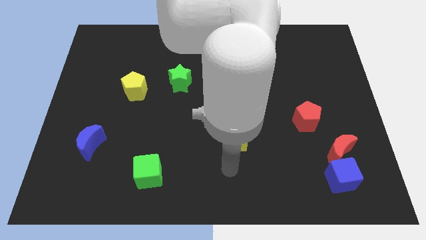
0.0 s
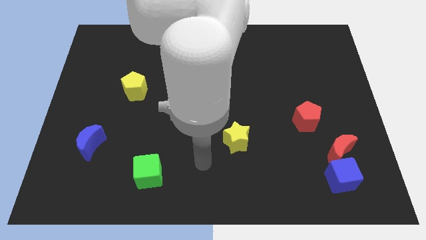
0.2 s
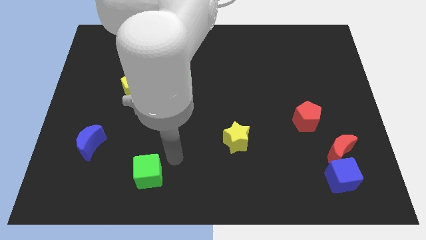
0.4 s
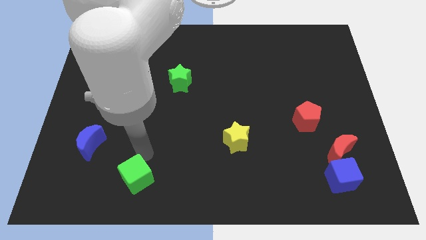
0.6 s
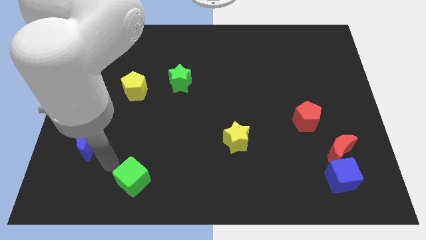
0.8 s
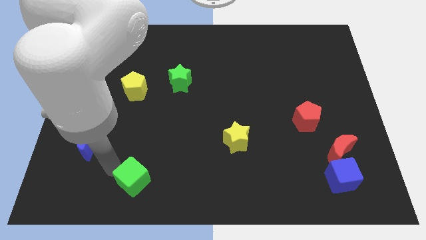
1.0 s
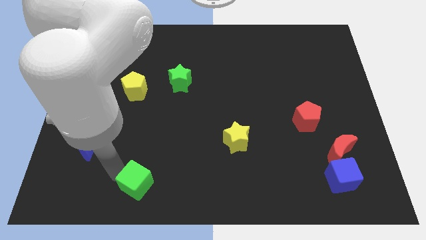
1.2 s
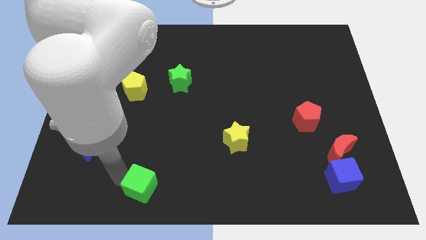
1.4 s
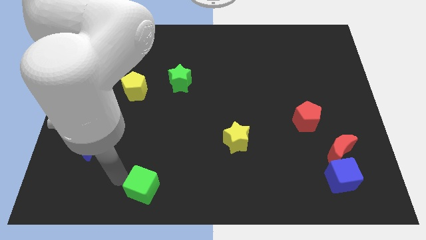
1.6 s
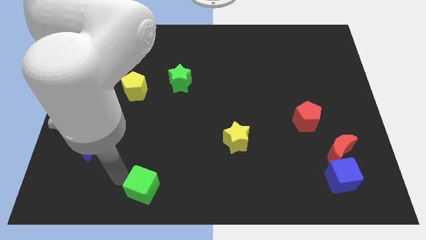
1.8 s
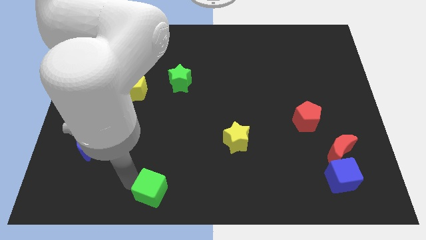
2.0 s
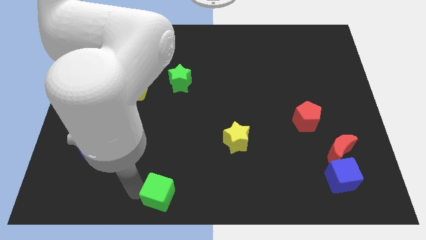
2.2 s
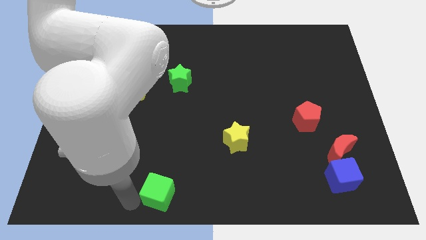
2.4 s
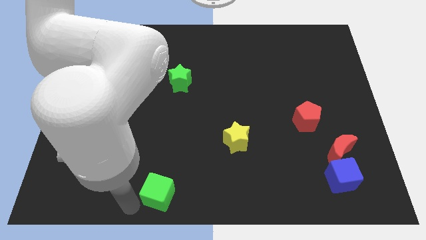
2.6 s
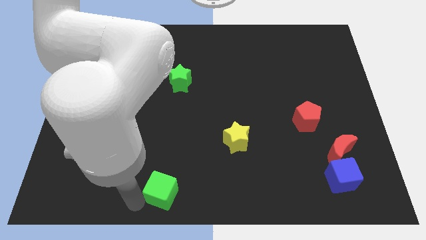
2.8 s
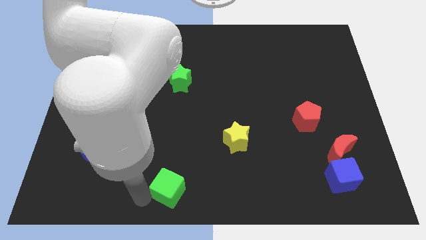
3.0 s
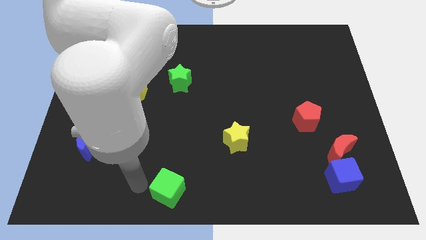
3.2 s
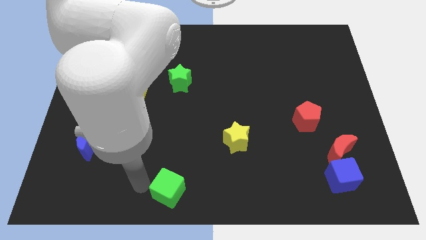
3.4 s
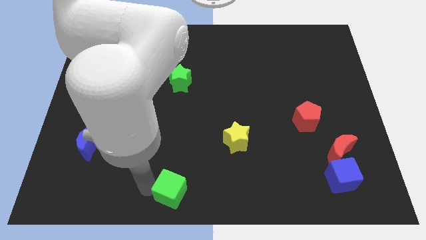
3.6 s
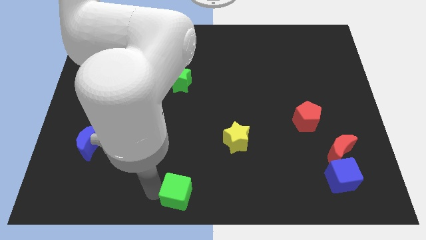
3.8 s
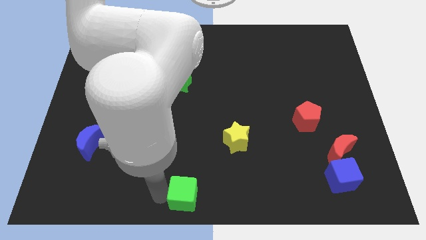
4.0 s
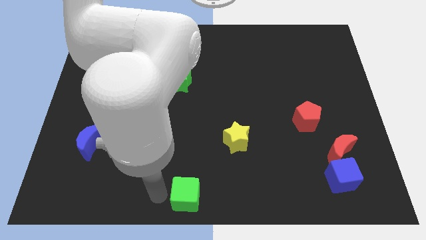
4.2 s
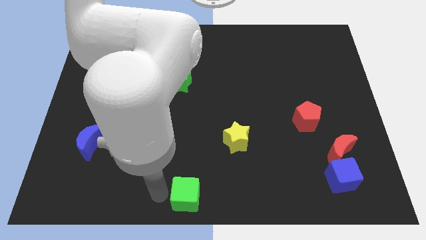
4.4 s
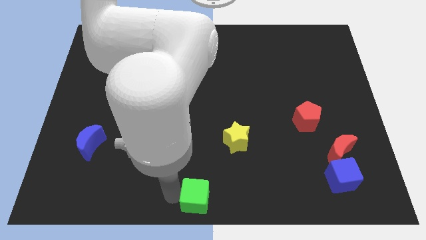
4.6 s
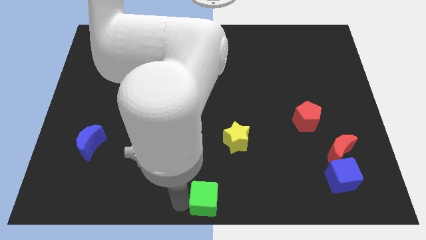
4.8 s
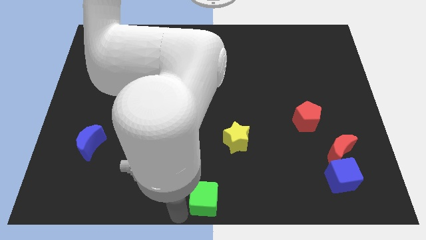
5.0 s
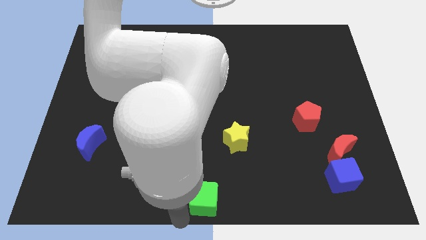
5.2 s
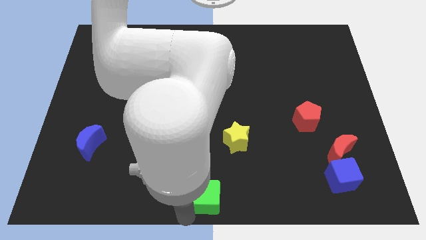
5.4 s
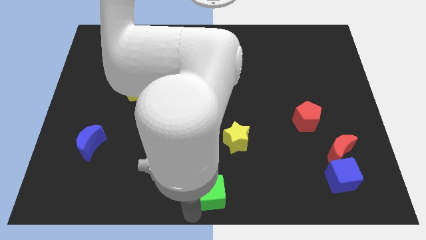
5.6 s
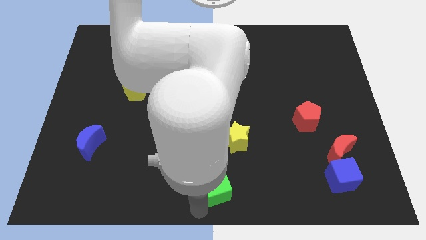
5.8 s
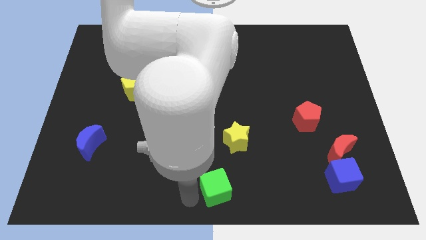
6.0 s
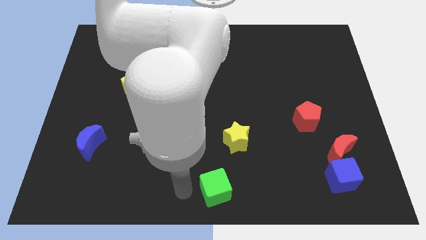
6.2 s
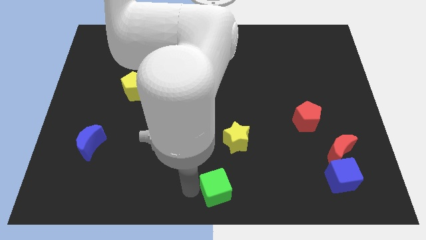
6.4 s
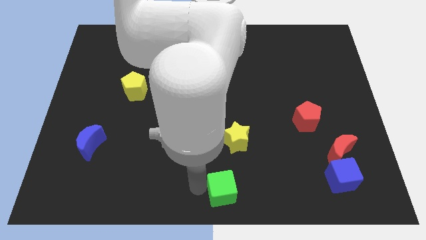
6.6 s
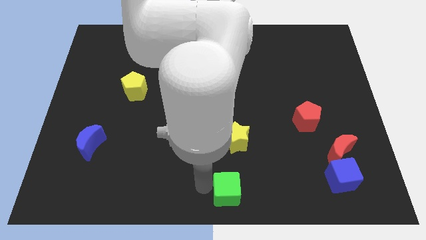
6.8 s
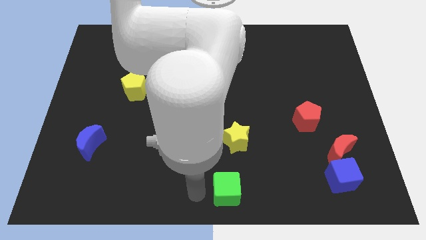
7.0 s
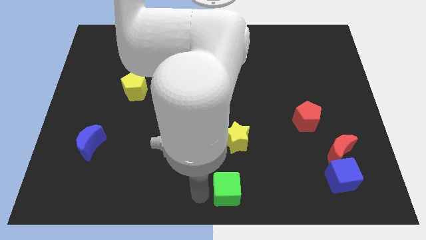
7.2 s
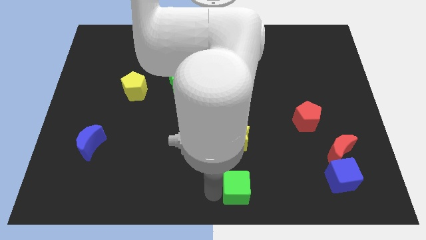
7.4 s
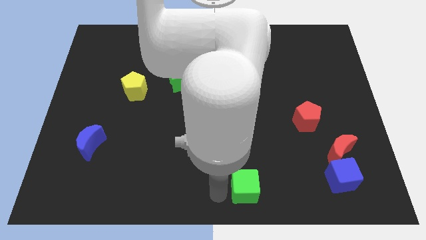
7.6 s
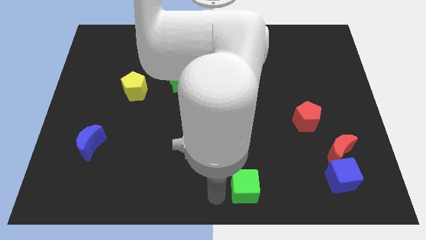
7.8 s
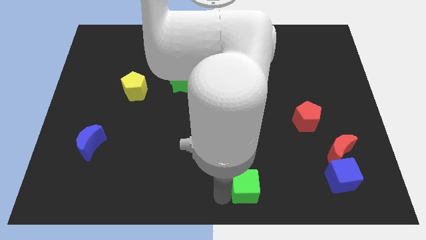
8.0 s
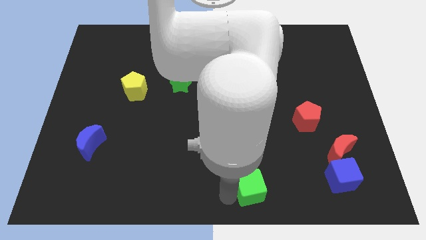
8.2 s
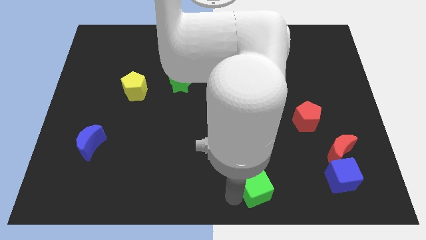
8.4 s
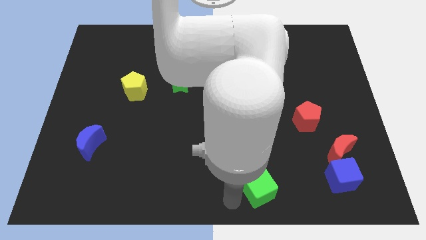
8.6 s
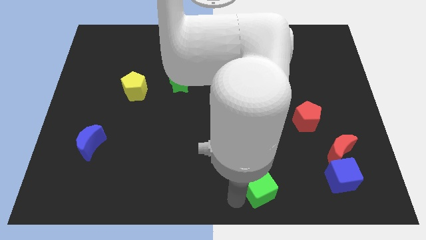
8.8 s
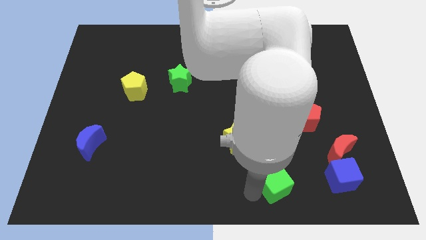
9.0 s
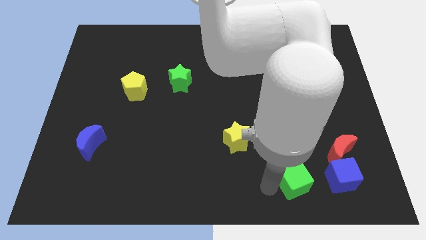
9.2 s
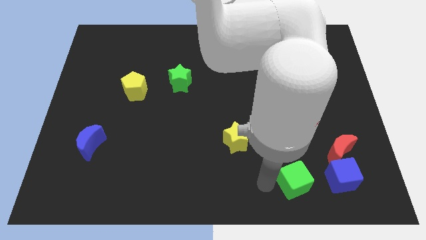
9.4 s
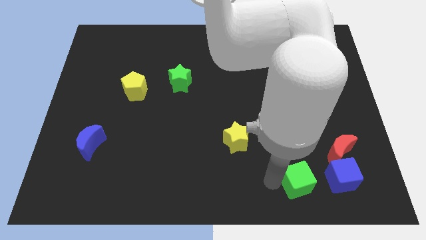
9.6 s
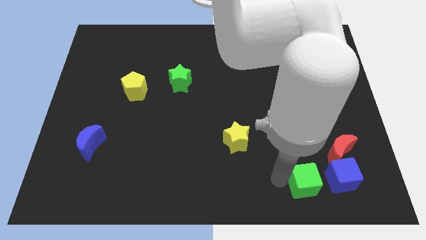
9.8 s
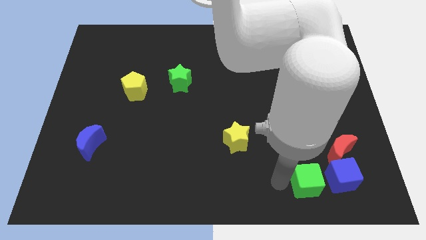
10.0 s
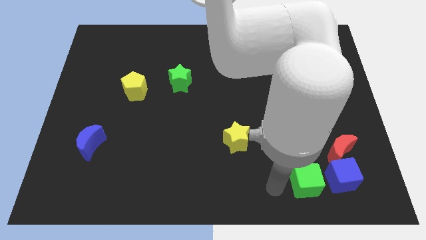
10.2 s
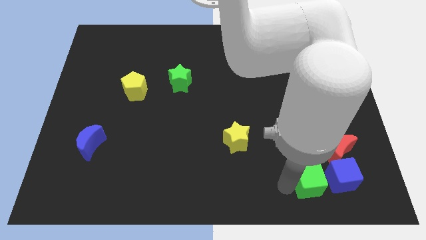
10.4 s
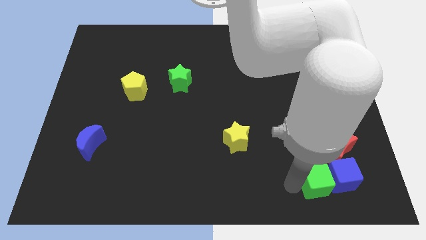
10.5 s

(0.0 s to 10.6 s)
move the green cube towards the blue cube

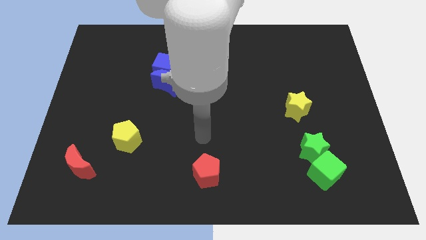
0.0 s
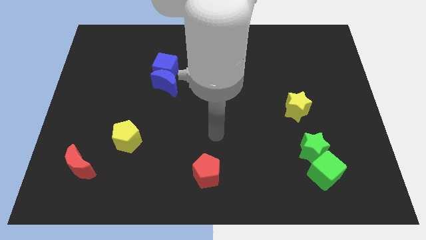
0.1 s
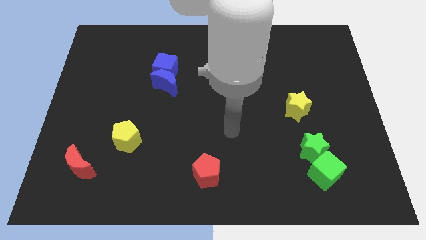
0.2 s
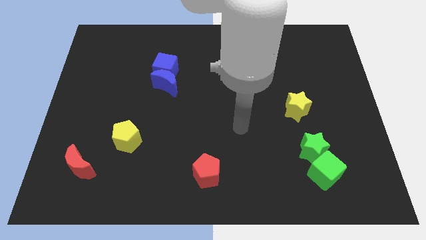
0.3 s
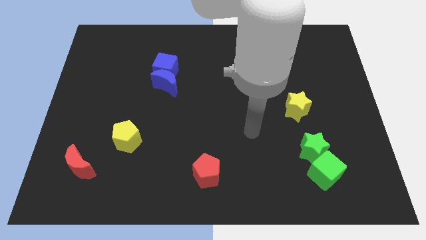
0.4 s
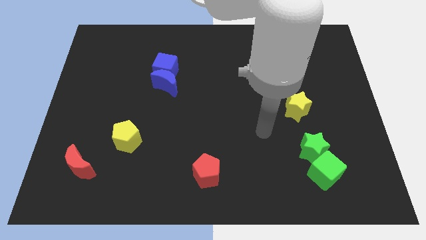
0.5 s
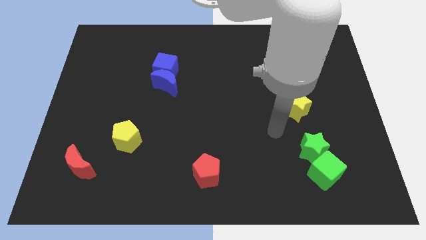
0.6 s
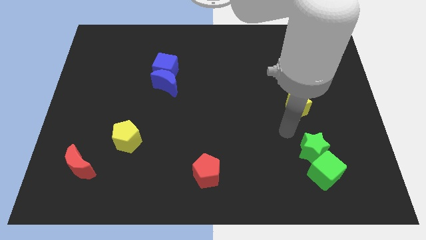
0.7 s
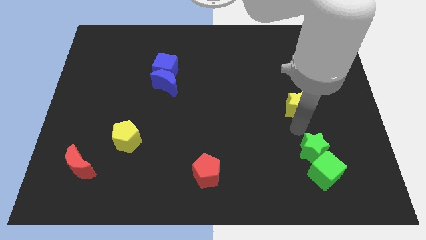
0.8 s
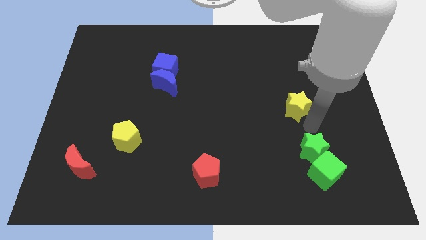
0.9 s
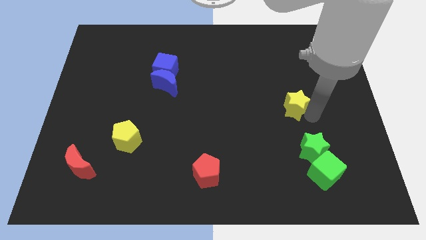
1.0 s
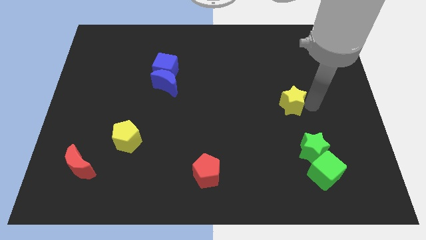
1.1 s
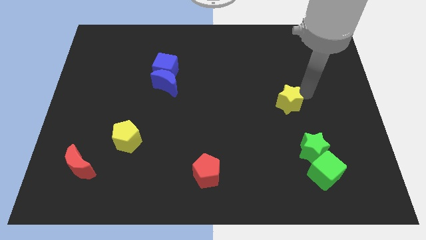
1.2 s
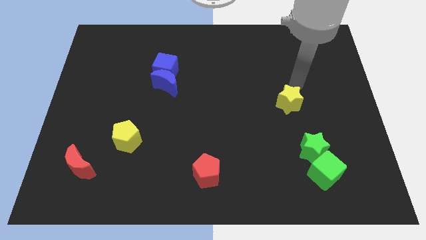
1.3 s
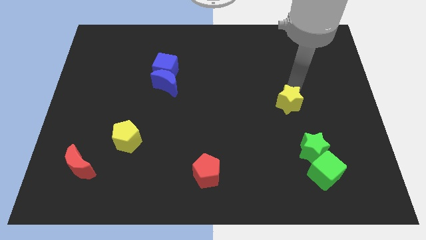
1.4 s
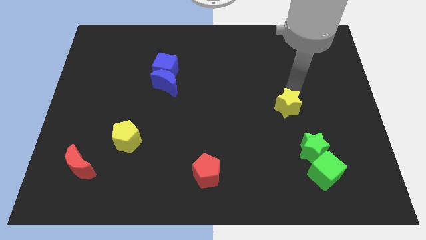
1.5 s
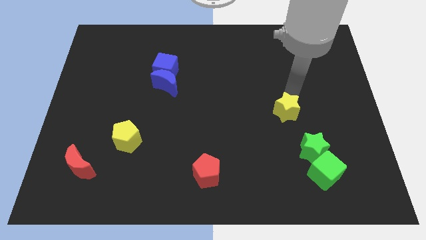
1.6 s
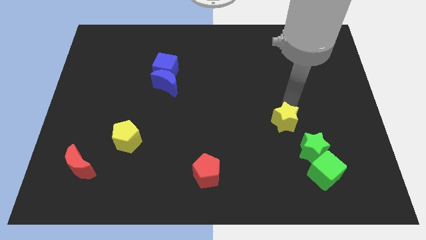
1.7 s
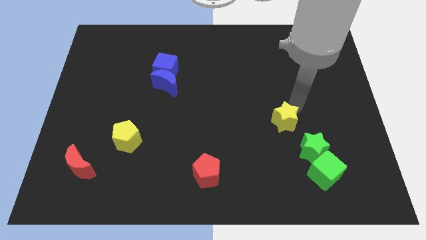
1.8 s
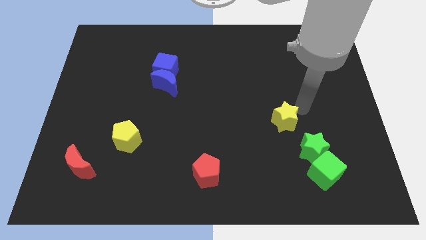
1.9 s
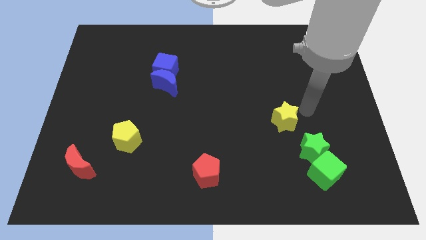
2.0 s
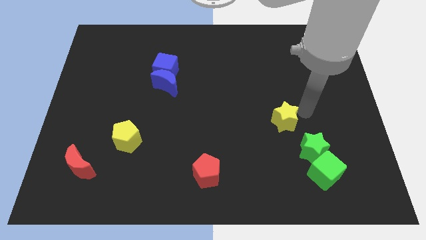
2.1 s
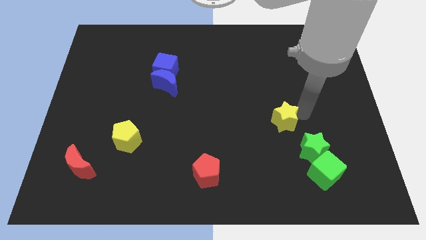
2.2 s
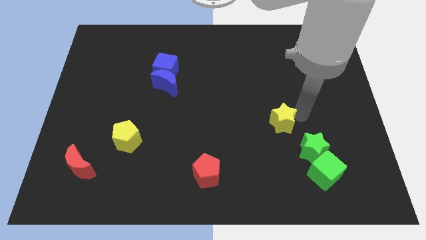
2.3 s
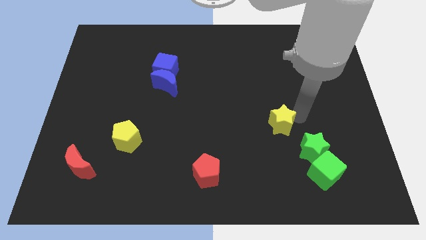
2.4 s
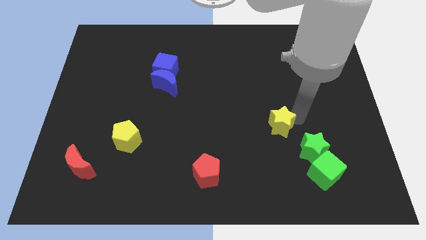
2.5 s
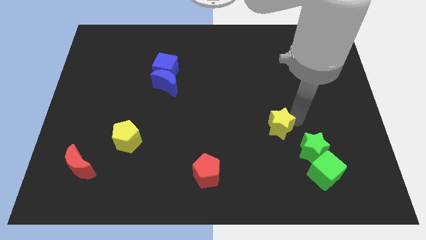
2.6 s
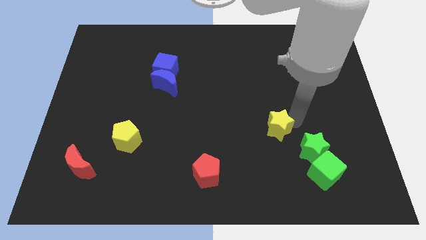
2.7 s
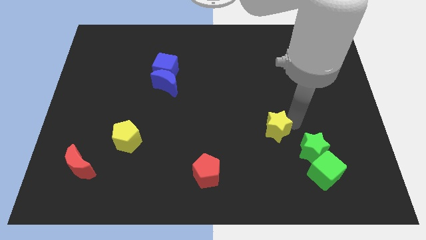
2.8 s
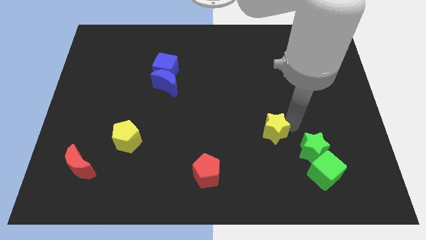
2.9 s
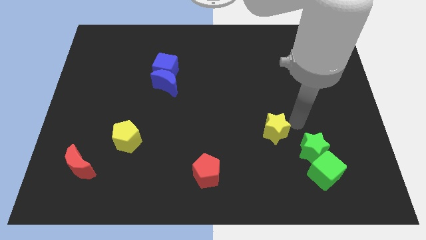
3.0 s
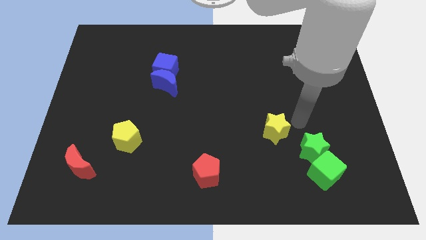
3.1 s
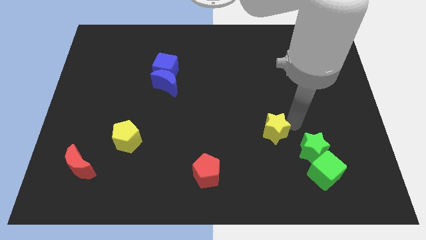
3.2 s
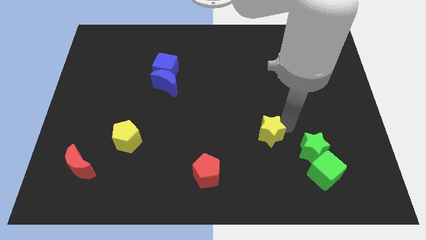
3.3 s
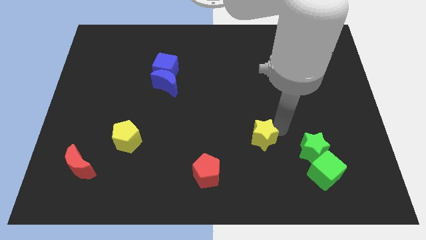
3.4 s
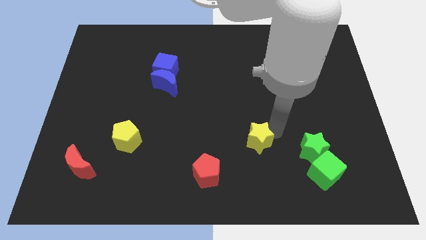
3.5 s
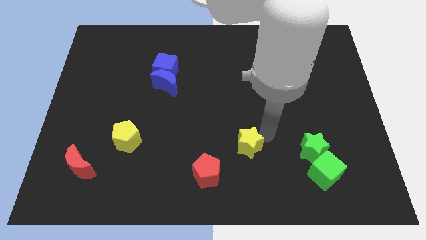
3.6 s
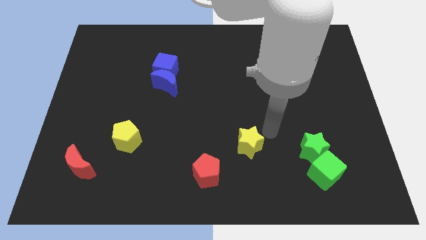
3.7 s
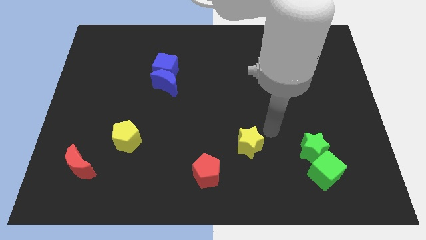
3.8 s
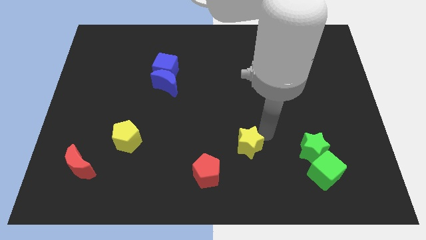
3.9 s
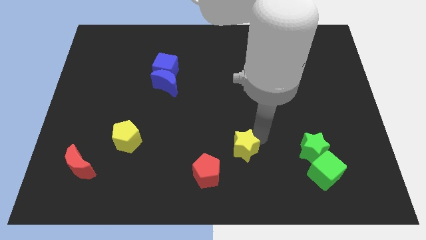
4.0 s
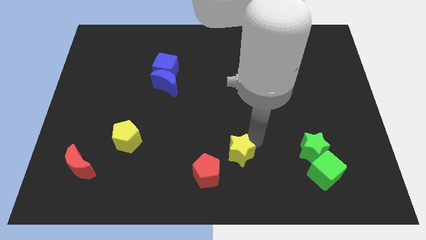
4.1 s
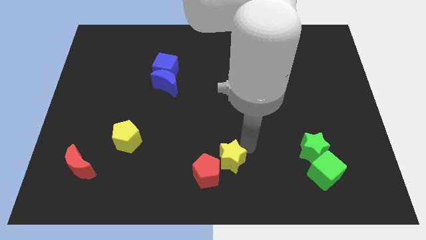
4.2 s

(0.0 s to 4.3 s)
push the yellow star close to the red pentagon
